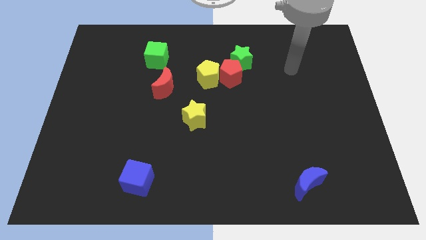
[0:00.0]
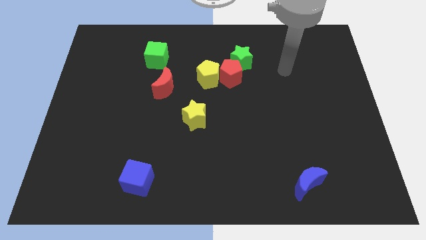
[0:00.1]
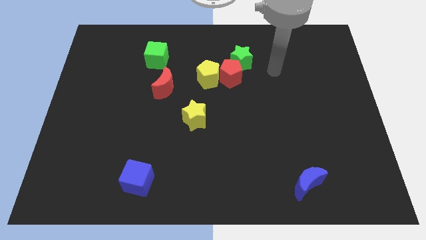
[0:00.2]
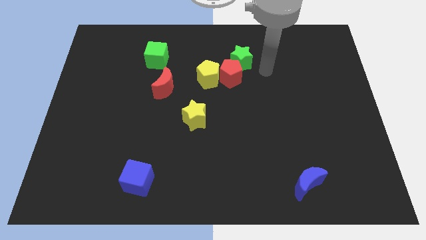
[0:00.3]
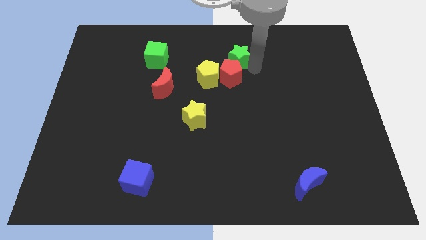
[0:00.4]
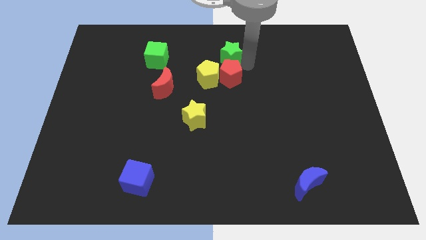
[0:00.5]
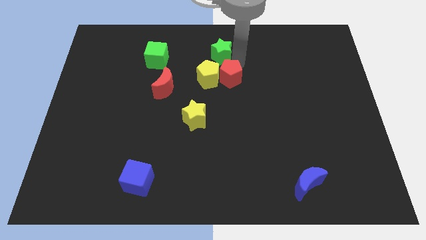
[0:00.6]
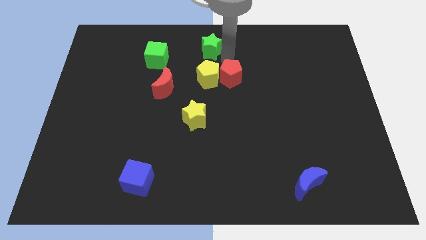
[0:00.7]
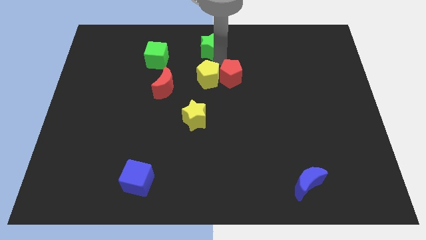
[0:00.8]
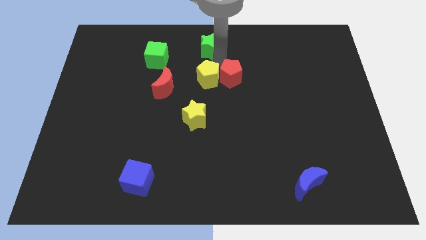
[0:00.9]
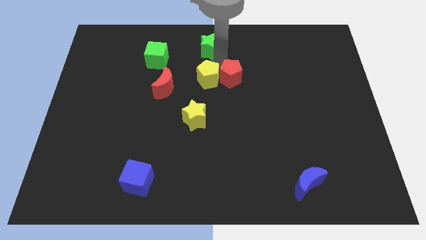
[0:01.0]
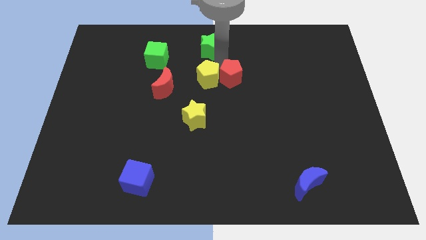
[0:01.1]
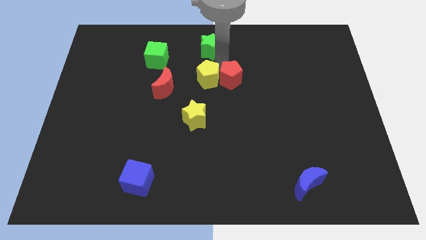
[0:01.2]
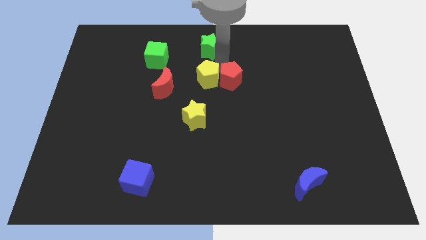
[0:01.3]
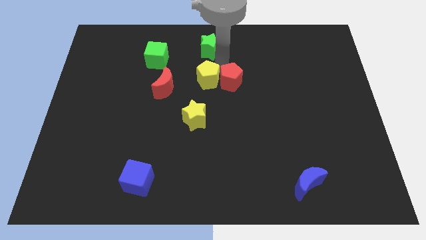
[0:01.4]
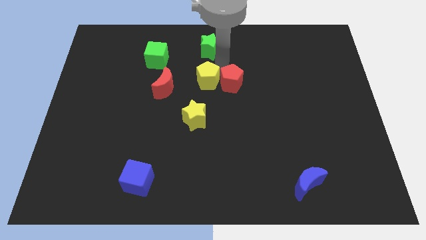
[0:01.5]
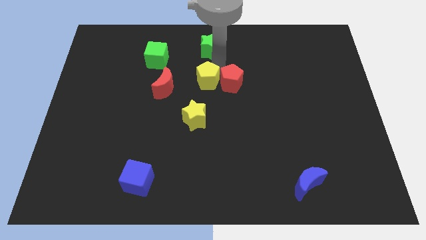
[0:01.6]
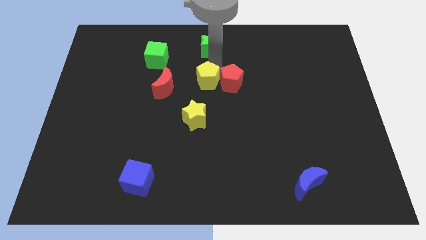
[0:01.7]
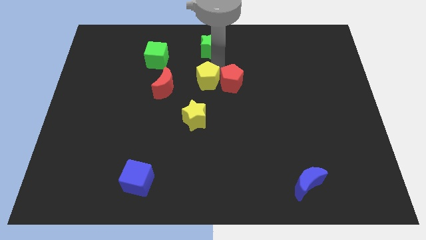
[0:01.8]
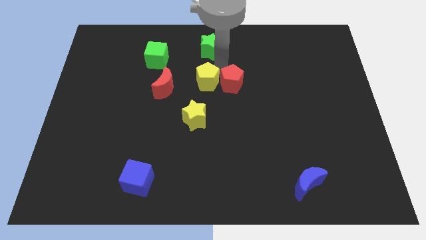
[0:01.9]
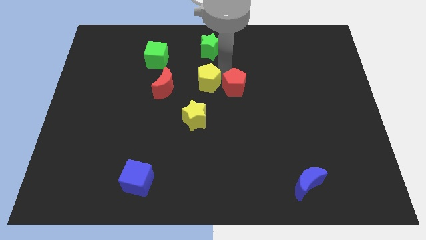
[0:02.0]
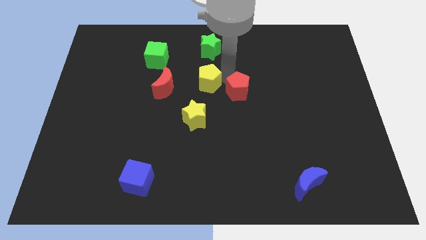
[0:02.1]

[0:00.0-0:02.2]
separate the red pentagon from the yellow pentagon and green star

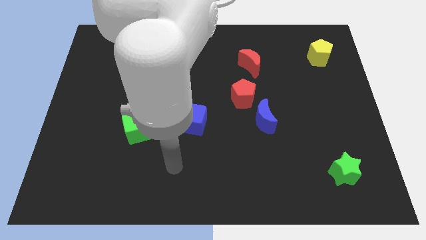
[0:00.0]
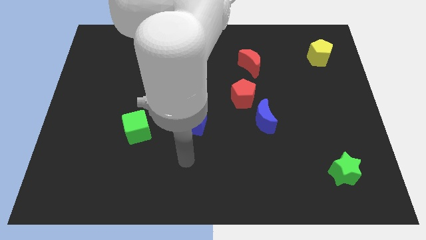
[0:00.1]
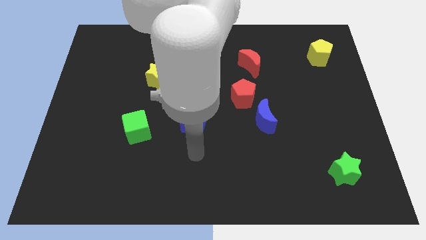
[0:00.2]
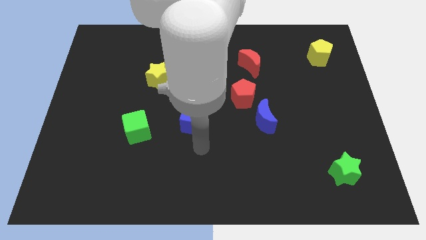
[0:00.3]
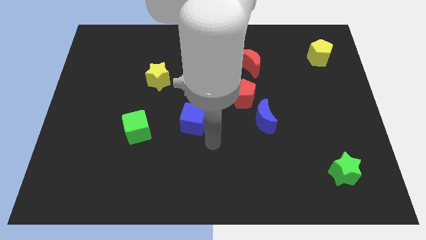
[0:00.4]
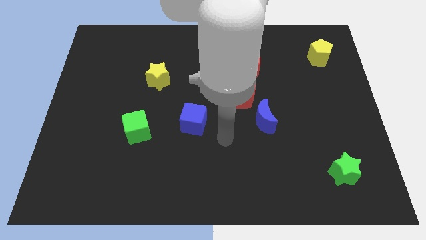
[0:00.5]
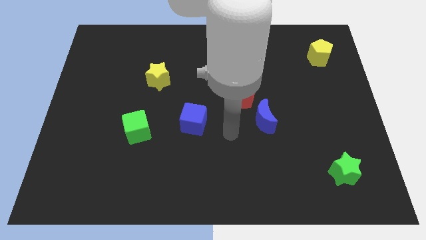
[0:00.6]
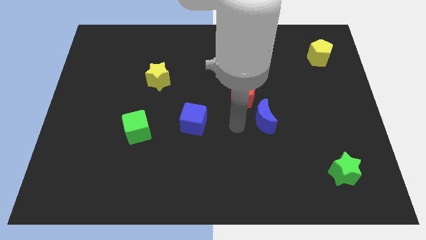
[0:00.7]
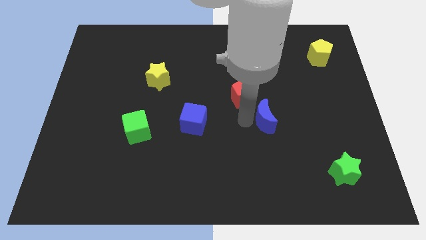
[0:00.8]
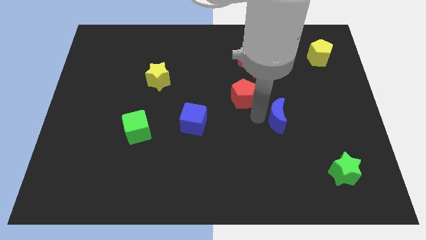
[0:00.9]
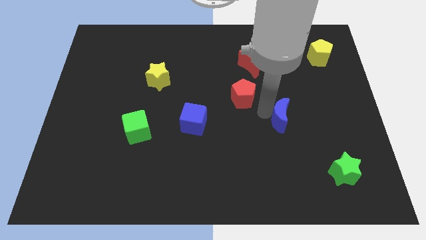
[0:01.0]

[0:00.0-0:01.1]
separate the red pentagon from the blue moon

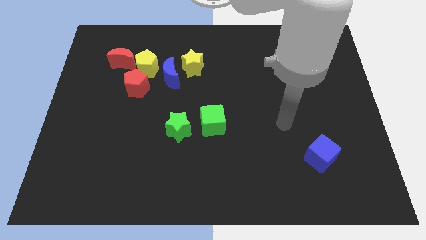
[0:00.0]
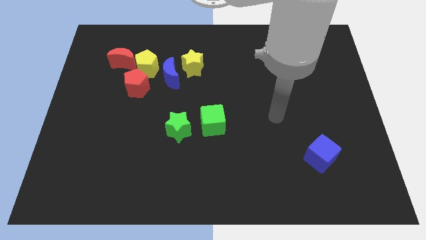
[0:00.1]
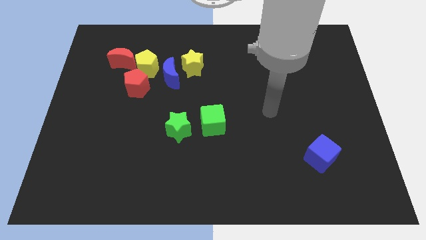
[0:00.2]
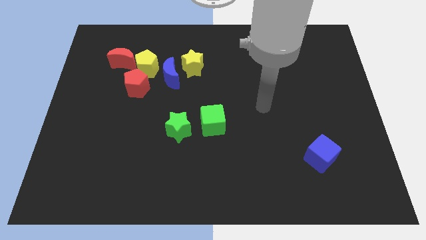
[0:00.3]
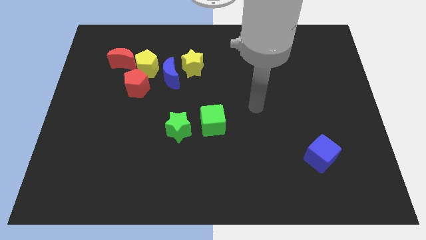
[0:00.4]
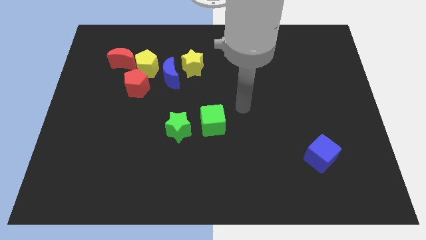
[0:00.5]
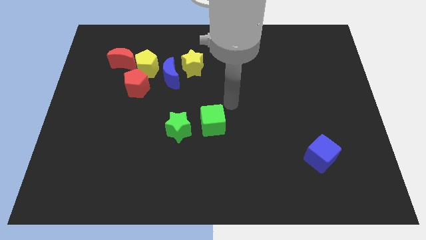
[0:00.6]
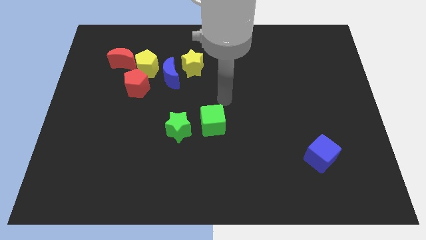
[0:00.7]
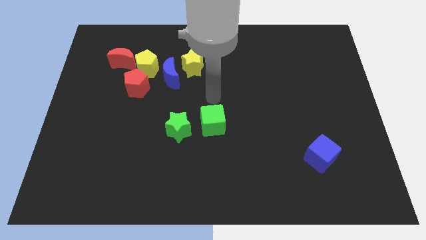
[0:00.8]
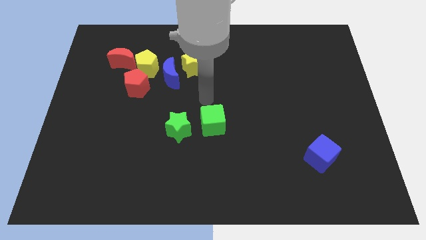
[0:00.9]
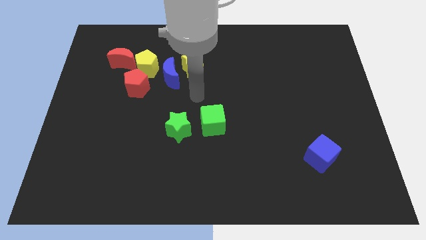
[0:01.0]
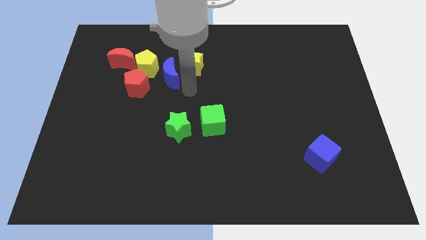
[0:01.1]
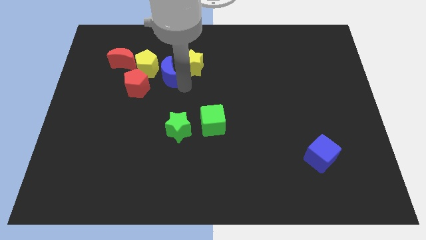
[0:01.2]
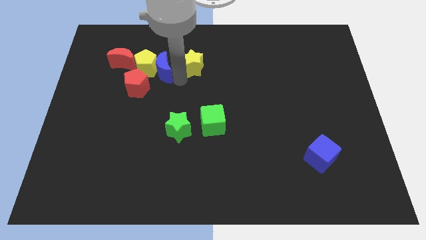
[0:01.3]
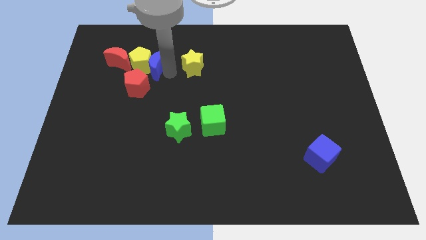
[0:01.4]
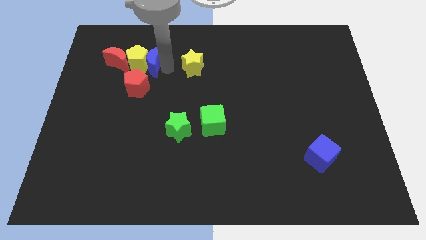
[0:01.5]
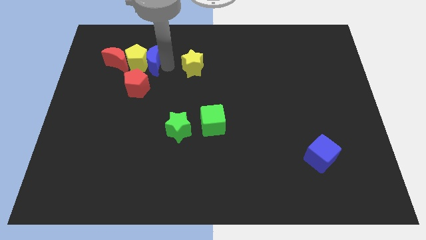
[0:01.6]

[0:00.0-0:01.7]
move the yellow star away from the blue moon

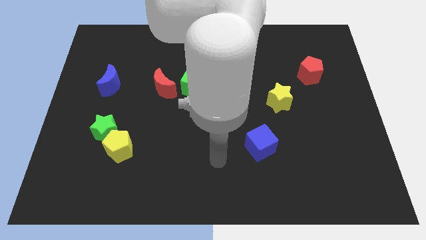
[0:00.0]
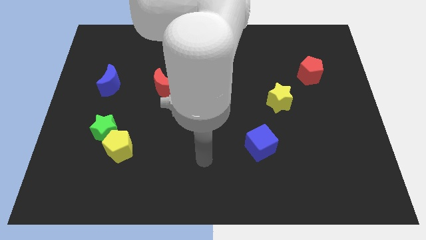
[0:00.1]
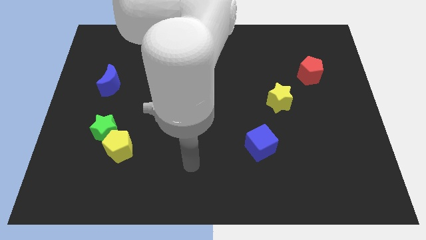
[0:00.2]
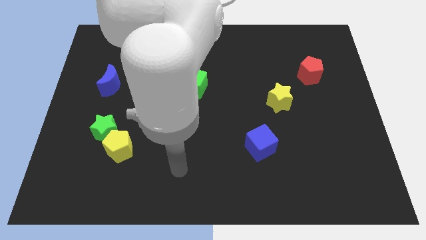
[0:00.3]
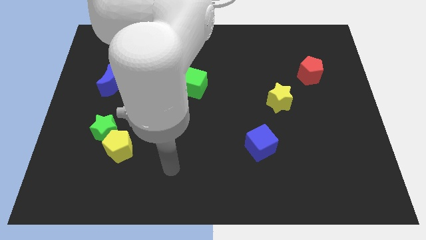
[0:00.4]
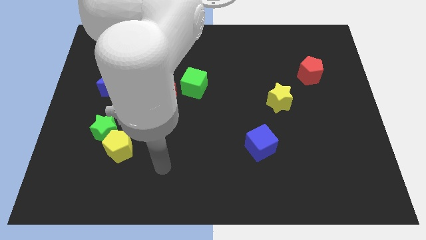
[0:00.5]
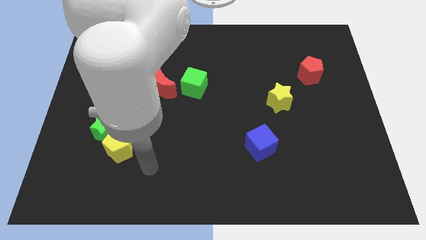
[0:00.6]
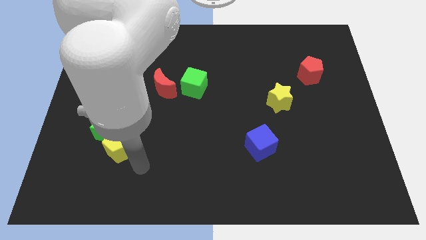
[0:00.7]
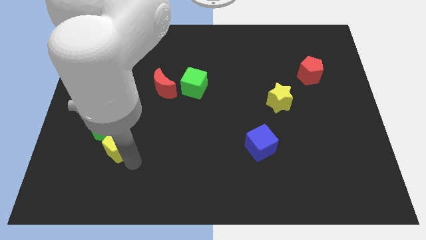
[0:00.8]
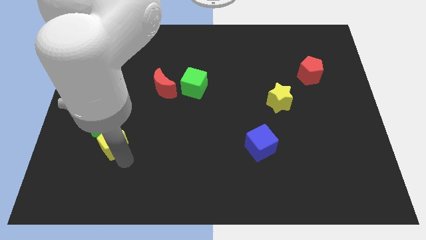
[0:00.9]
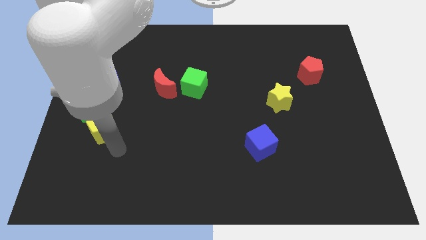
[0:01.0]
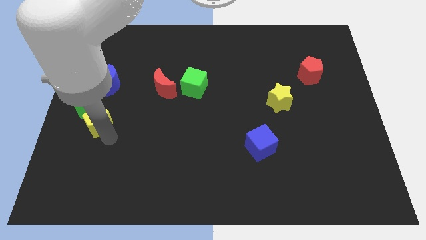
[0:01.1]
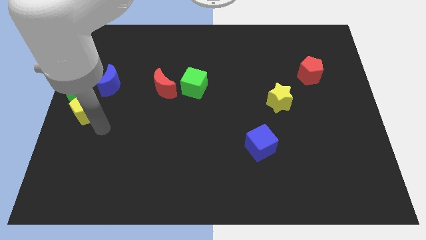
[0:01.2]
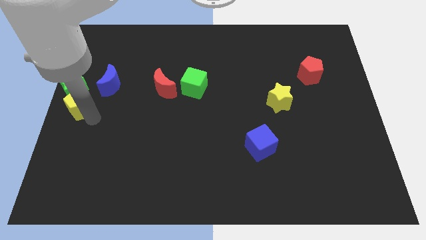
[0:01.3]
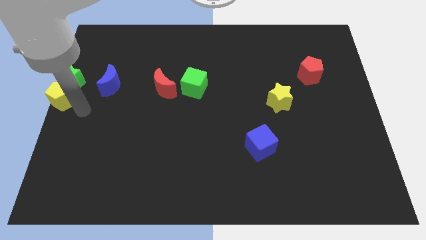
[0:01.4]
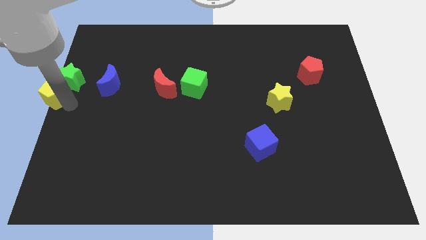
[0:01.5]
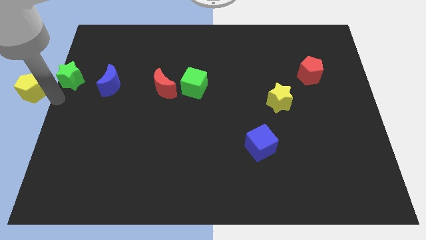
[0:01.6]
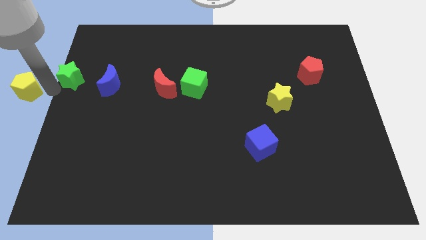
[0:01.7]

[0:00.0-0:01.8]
move the green star away from the yellow pentagon

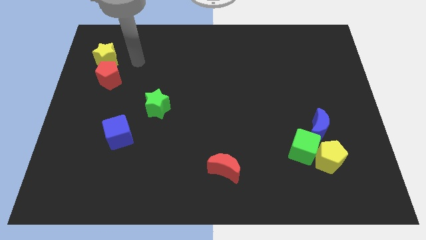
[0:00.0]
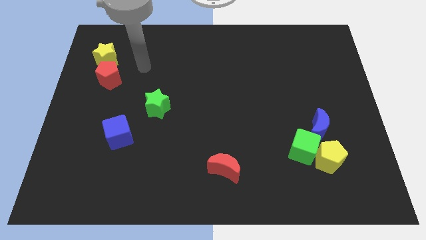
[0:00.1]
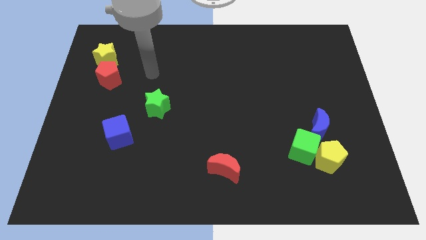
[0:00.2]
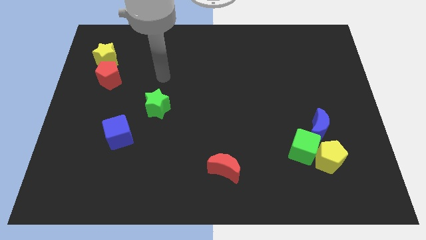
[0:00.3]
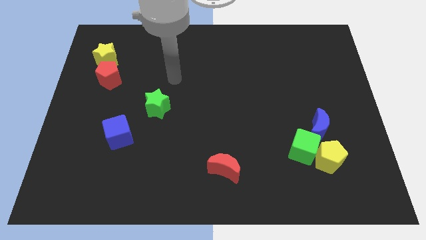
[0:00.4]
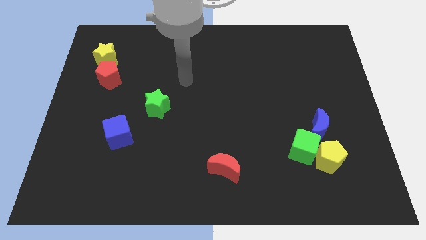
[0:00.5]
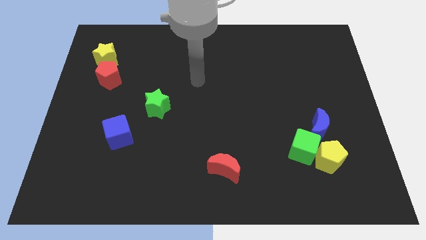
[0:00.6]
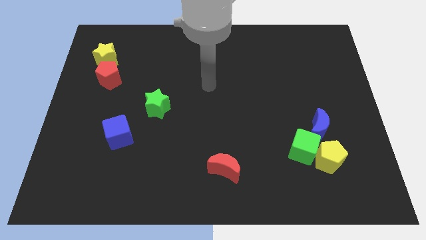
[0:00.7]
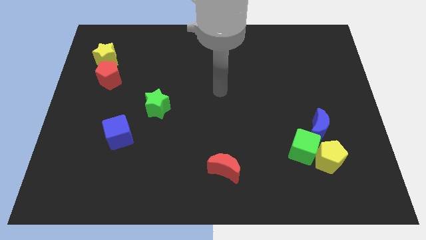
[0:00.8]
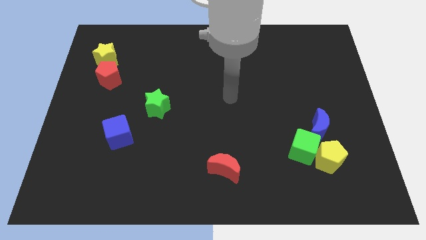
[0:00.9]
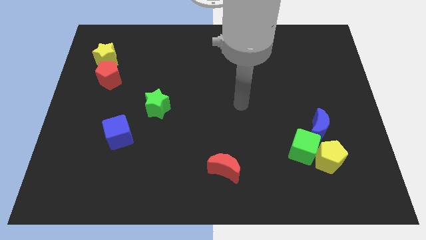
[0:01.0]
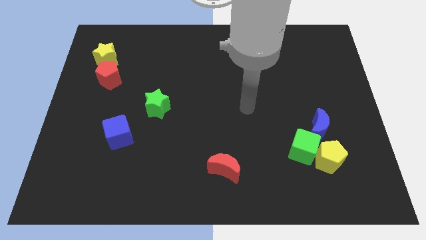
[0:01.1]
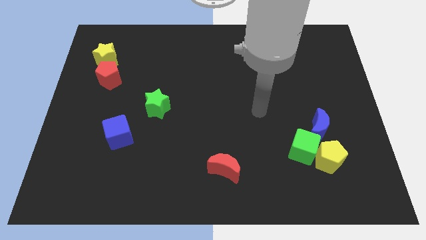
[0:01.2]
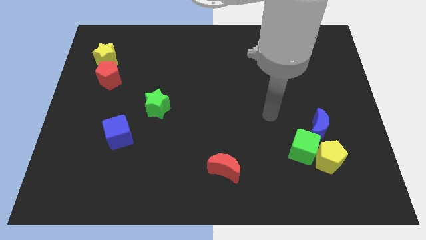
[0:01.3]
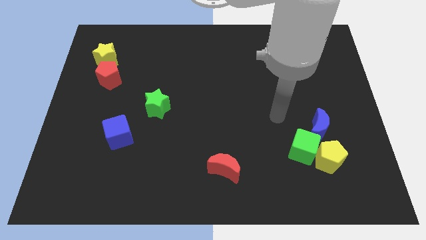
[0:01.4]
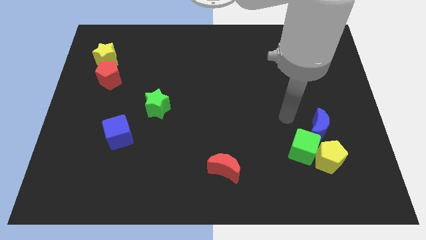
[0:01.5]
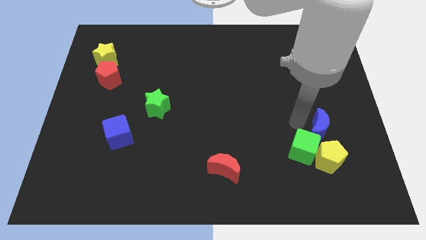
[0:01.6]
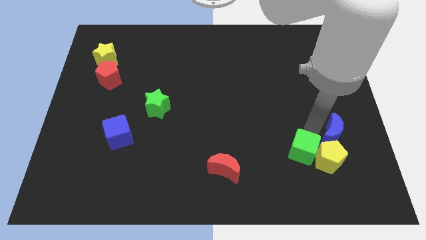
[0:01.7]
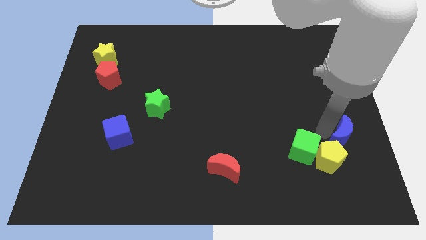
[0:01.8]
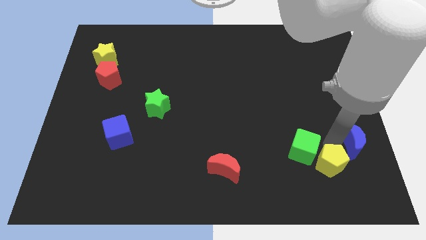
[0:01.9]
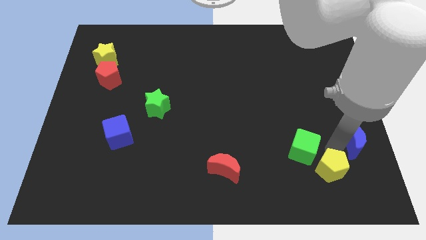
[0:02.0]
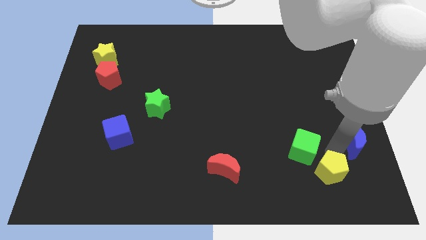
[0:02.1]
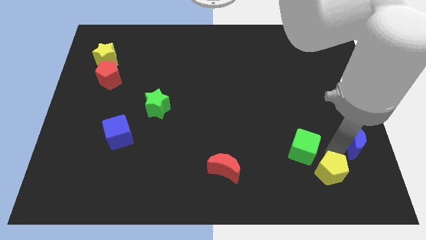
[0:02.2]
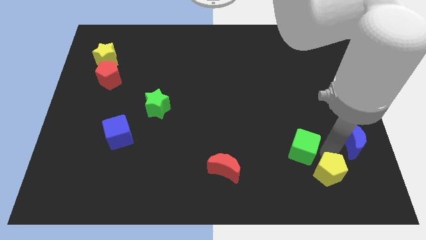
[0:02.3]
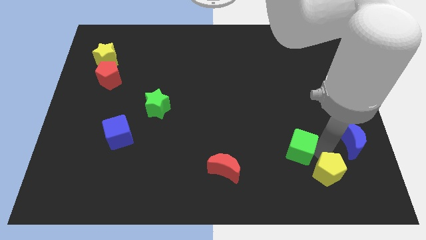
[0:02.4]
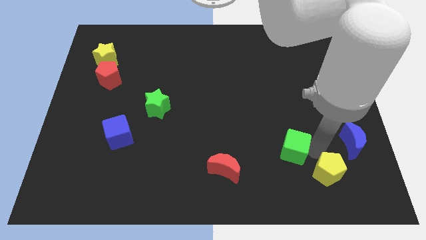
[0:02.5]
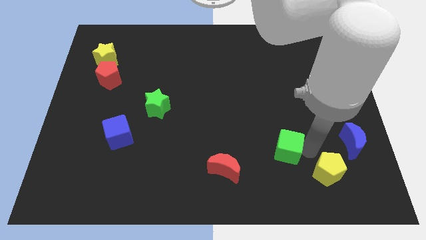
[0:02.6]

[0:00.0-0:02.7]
pull the green cube apart from the yellow pentagon and blue moon
